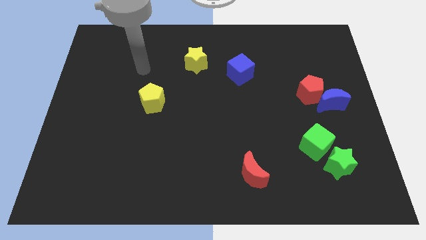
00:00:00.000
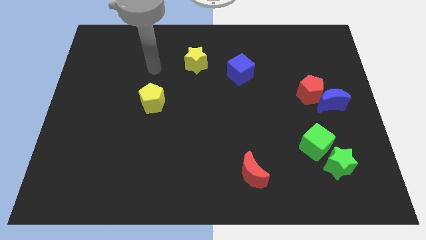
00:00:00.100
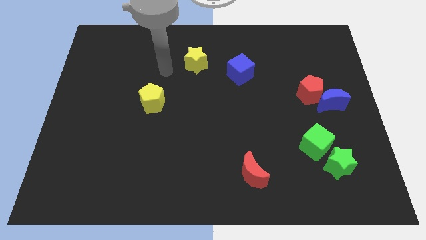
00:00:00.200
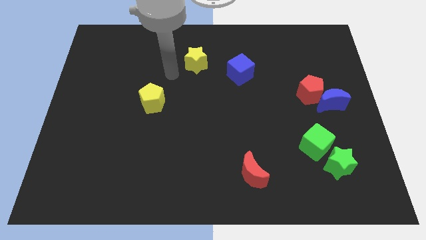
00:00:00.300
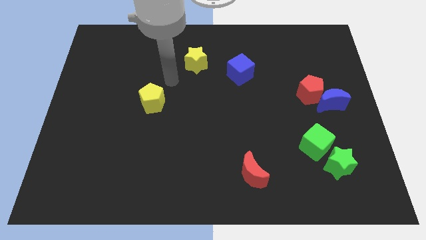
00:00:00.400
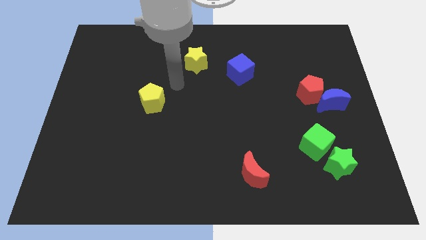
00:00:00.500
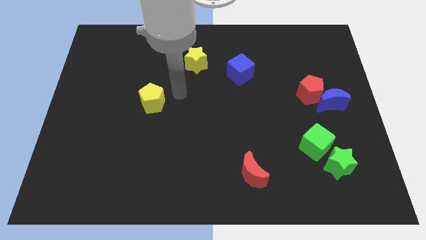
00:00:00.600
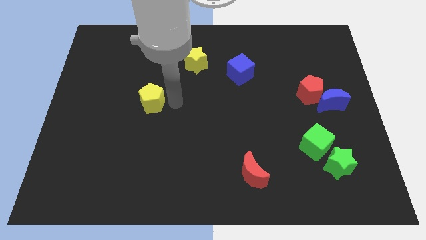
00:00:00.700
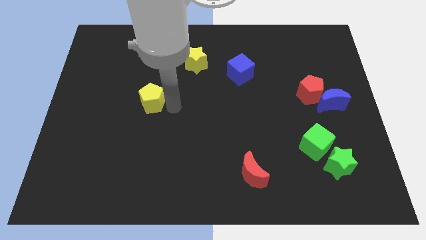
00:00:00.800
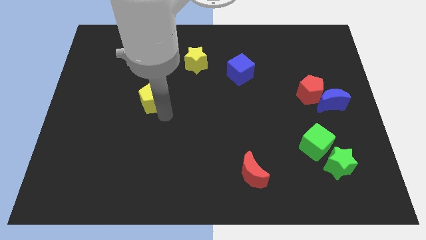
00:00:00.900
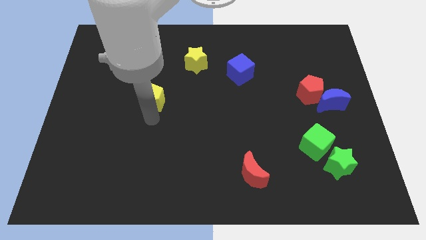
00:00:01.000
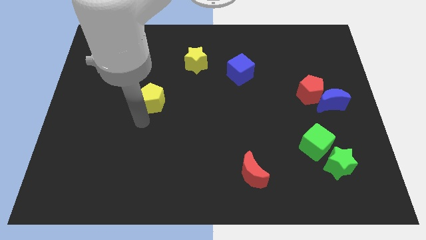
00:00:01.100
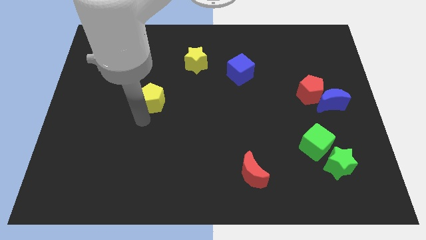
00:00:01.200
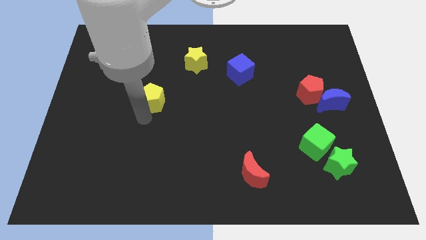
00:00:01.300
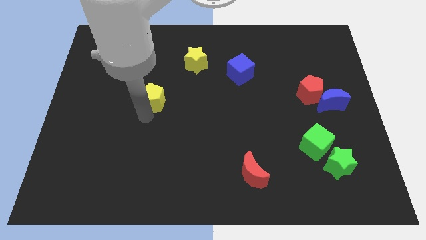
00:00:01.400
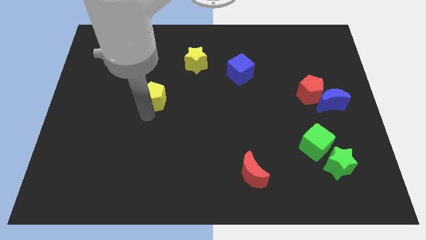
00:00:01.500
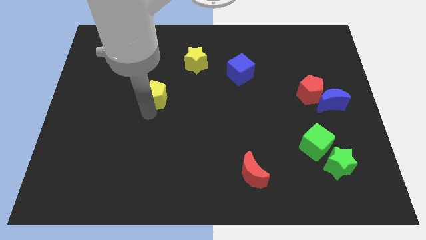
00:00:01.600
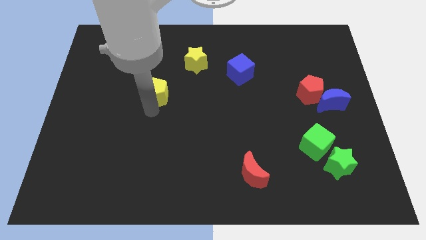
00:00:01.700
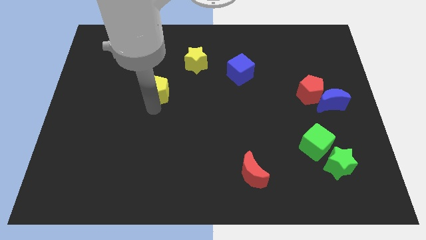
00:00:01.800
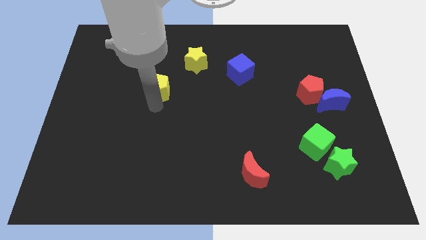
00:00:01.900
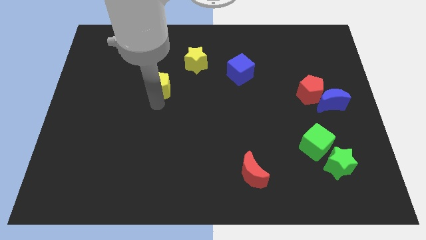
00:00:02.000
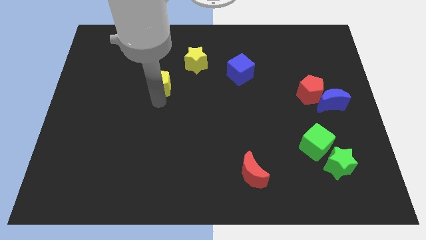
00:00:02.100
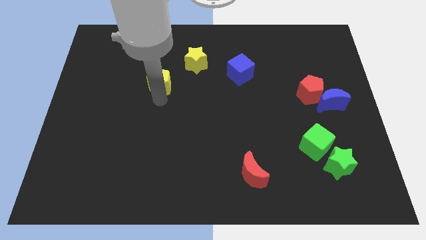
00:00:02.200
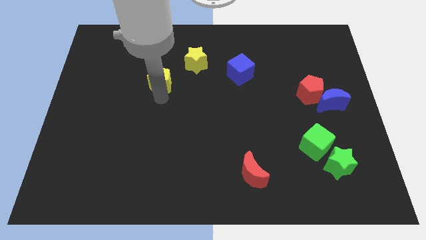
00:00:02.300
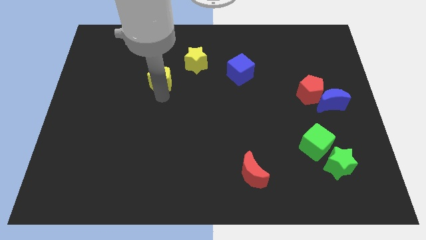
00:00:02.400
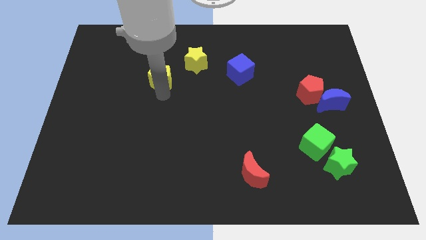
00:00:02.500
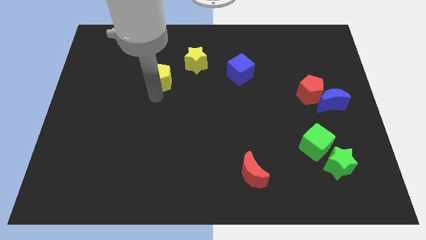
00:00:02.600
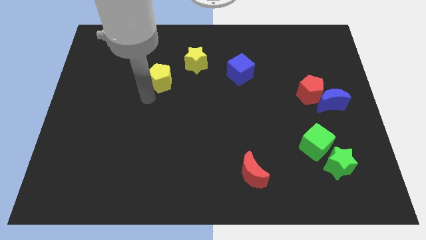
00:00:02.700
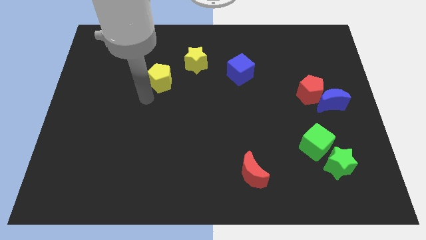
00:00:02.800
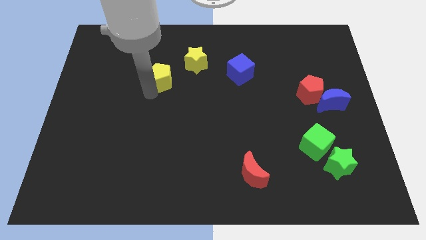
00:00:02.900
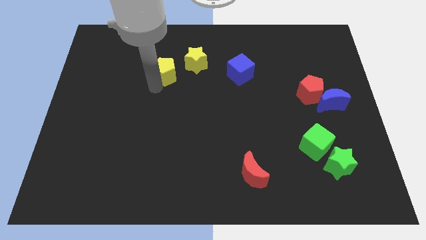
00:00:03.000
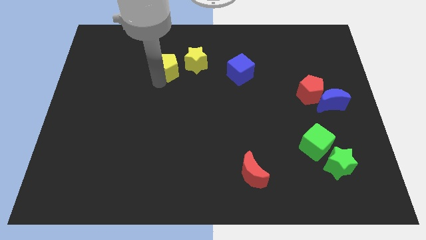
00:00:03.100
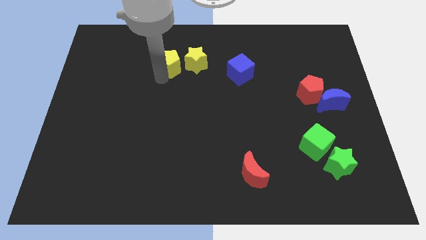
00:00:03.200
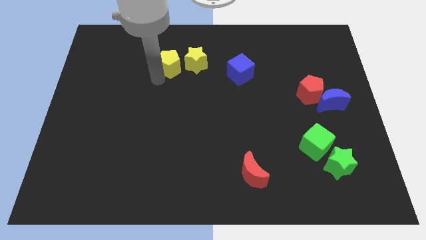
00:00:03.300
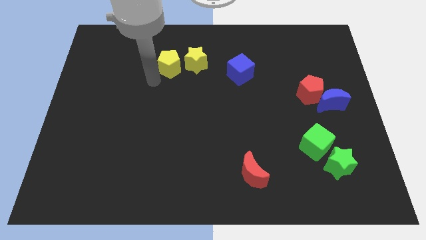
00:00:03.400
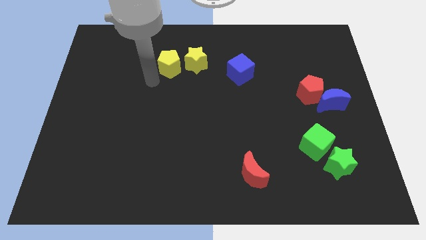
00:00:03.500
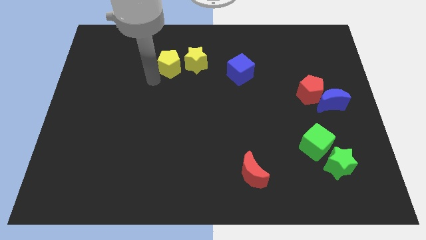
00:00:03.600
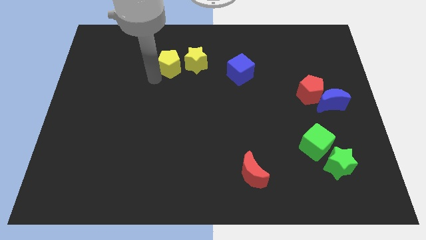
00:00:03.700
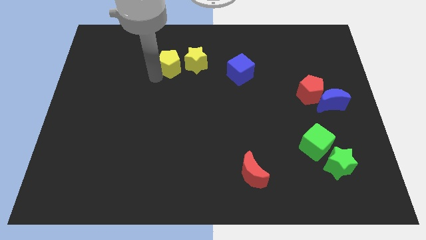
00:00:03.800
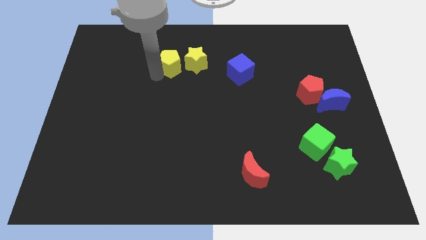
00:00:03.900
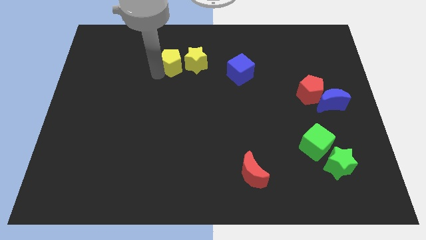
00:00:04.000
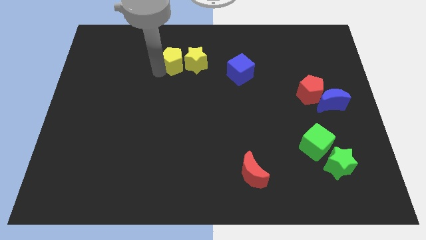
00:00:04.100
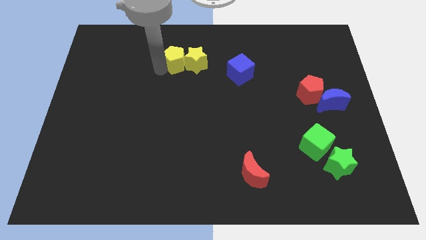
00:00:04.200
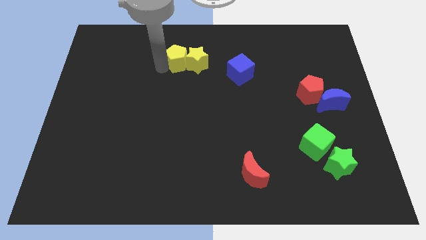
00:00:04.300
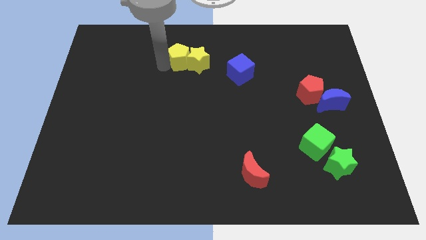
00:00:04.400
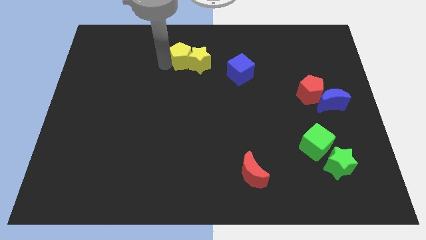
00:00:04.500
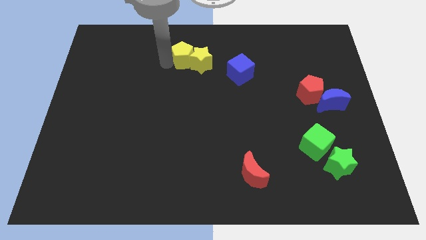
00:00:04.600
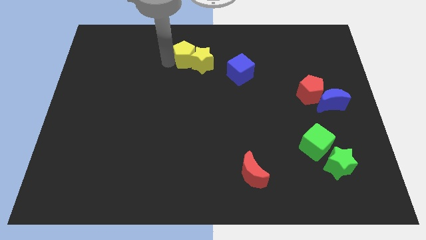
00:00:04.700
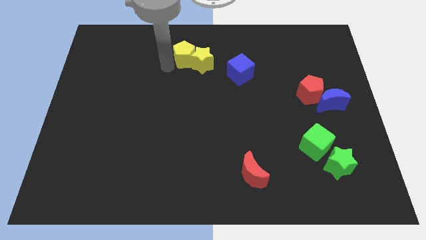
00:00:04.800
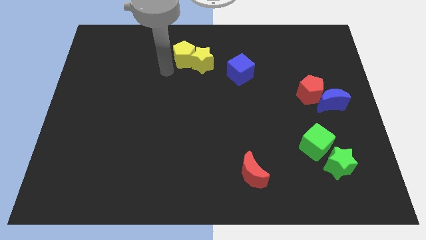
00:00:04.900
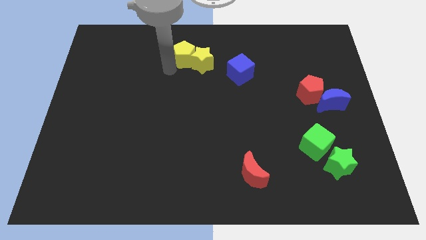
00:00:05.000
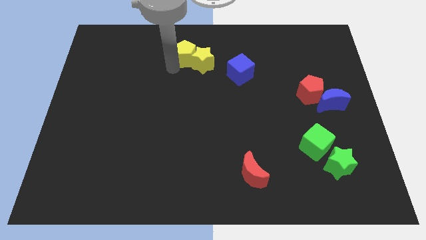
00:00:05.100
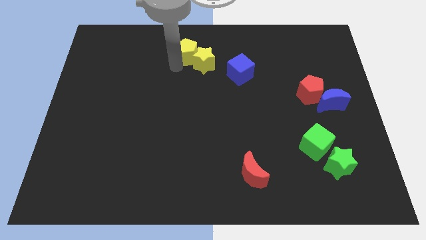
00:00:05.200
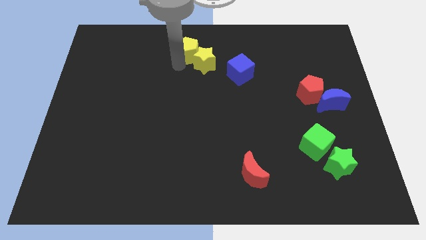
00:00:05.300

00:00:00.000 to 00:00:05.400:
slide the yellow pentagon to the towards your base

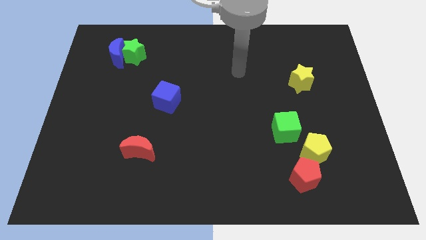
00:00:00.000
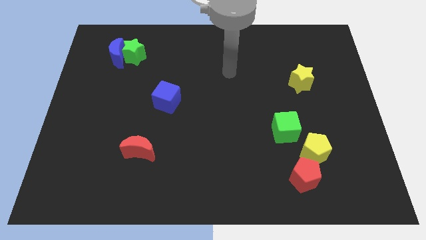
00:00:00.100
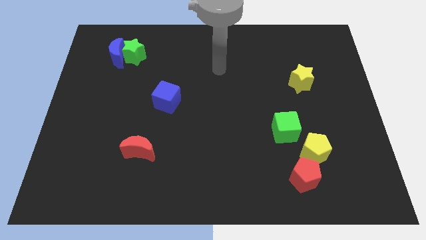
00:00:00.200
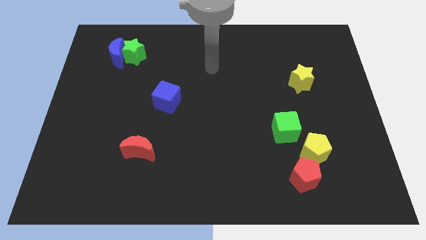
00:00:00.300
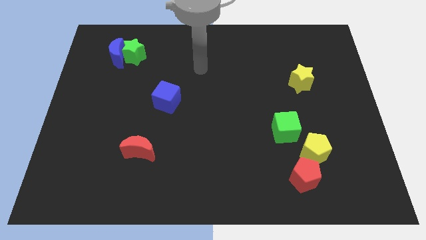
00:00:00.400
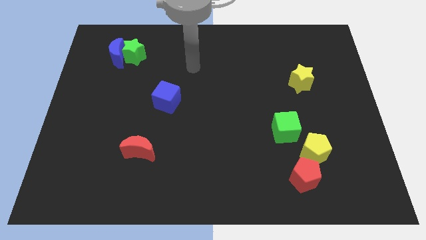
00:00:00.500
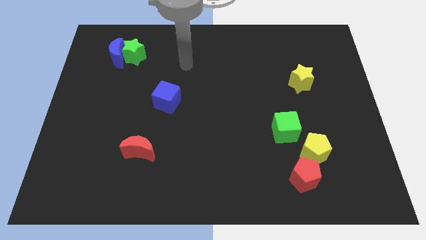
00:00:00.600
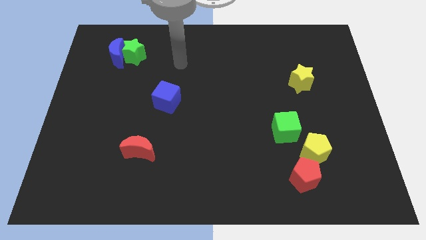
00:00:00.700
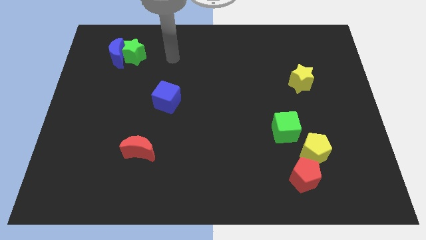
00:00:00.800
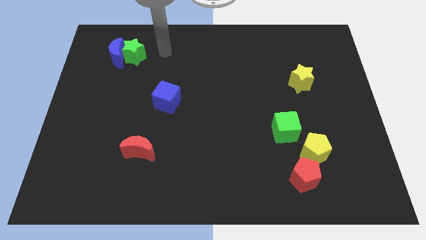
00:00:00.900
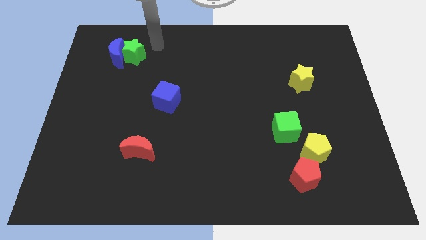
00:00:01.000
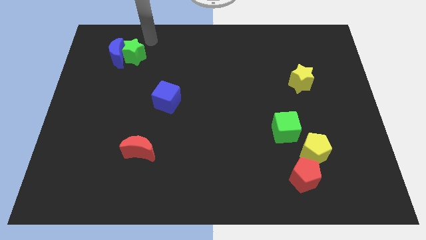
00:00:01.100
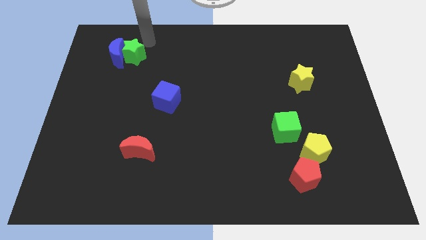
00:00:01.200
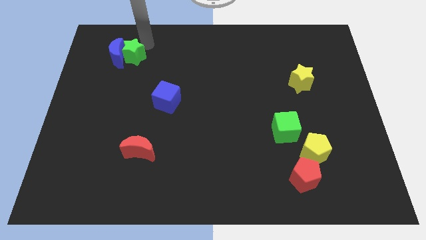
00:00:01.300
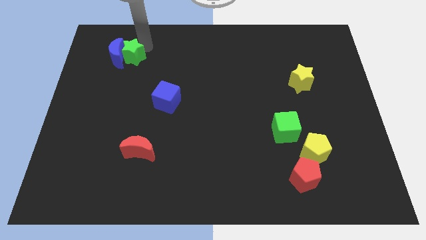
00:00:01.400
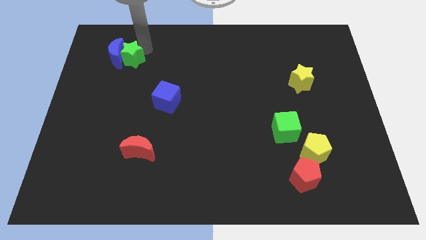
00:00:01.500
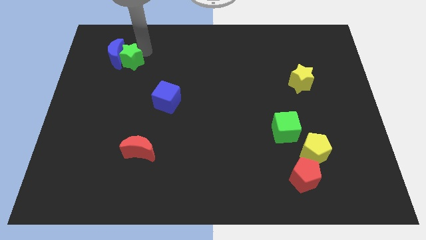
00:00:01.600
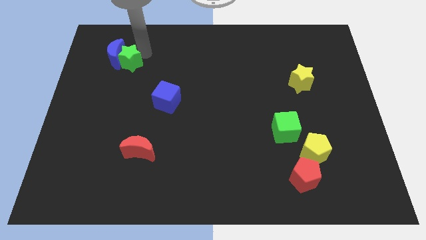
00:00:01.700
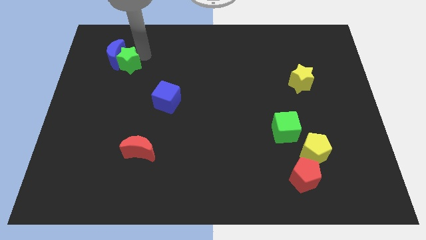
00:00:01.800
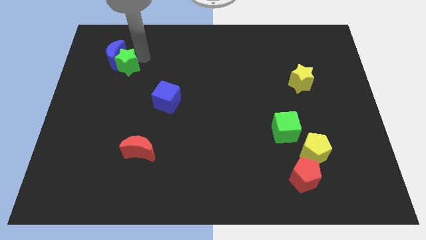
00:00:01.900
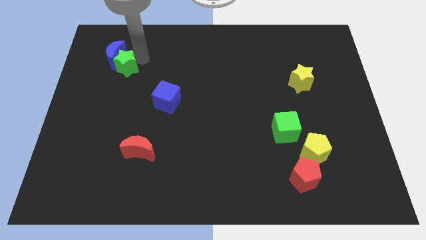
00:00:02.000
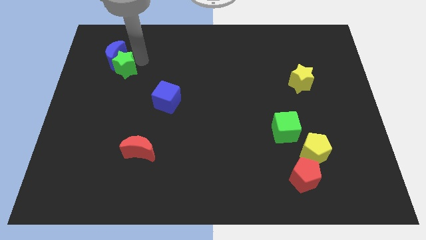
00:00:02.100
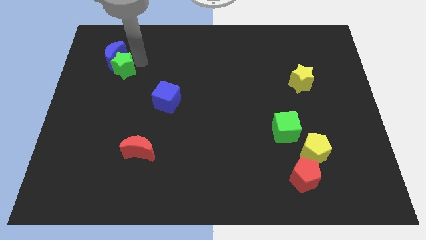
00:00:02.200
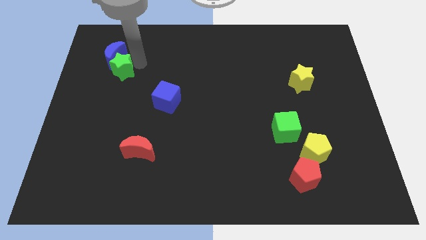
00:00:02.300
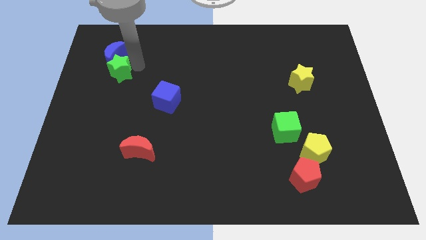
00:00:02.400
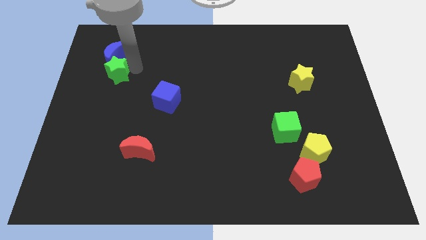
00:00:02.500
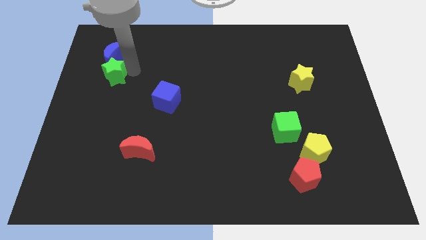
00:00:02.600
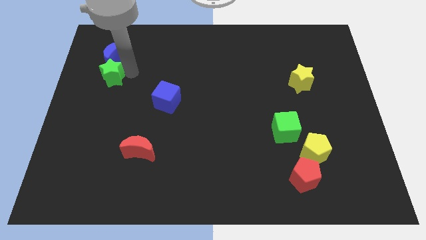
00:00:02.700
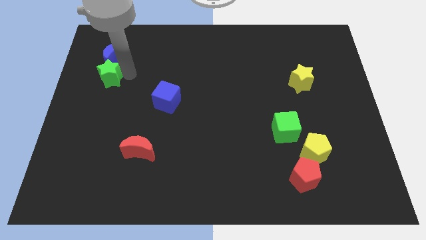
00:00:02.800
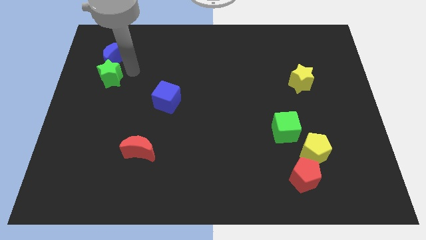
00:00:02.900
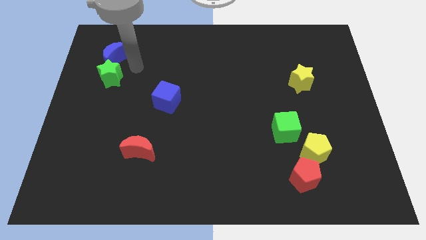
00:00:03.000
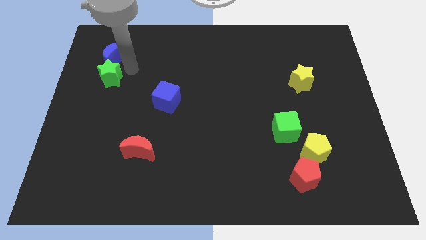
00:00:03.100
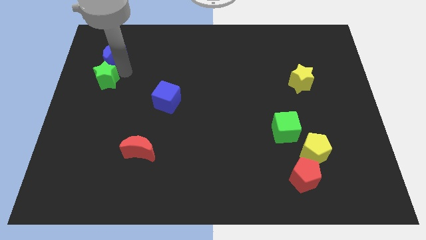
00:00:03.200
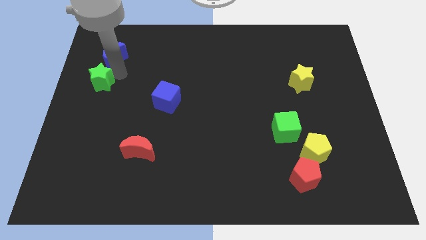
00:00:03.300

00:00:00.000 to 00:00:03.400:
move the green star to the left side
